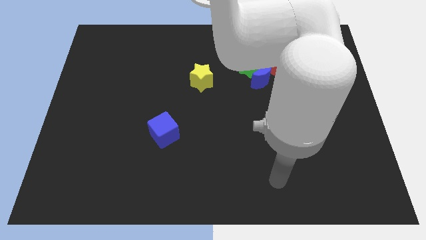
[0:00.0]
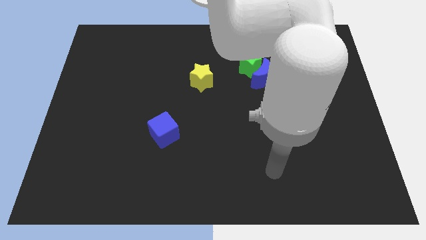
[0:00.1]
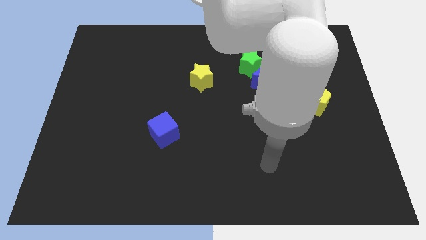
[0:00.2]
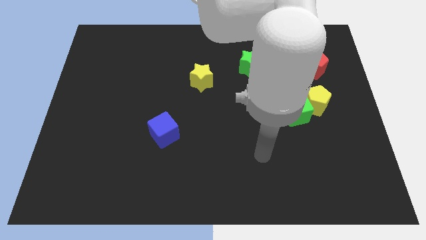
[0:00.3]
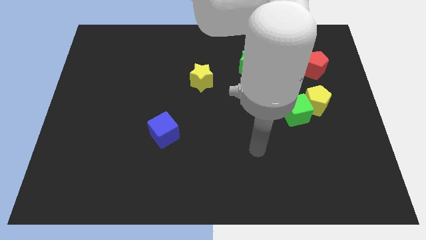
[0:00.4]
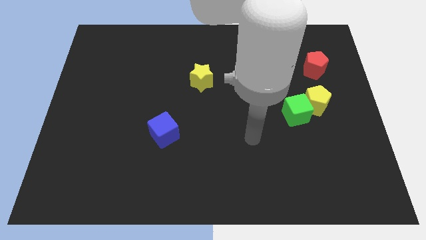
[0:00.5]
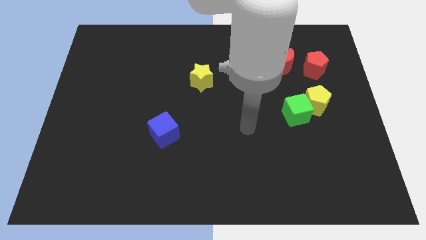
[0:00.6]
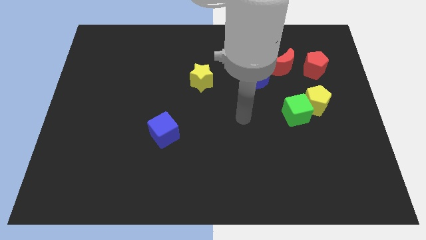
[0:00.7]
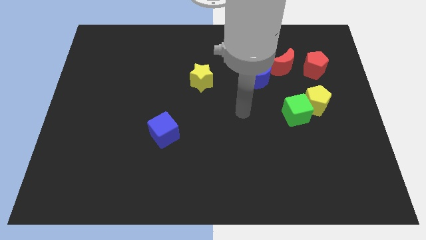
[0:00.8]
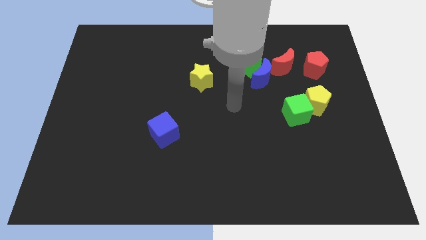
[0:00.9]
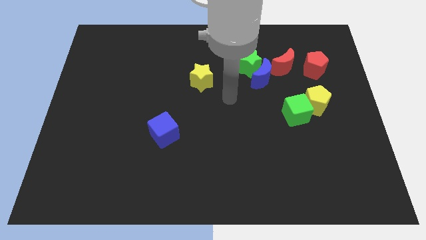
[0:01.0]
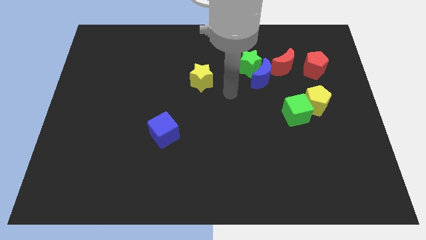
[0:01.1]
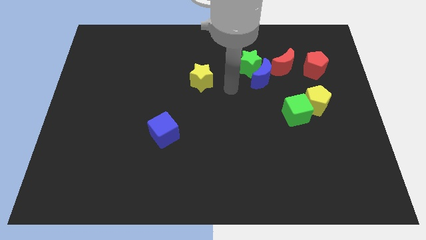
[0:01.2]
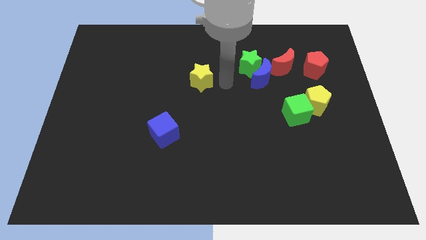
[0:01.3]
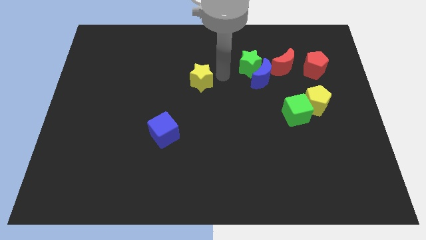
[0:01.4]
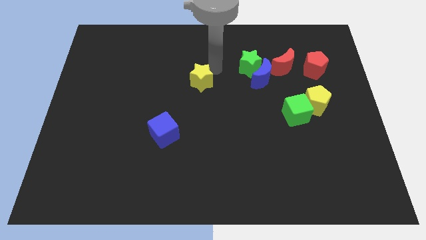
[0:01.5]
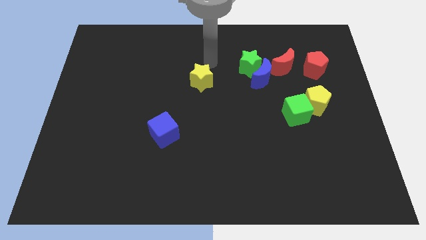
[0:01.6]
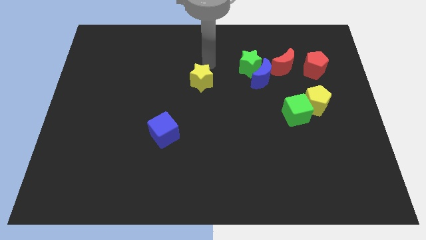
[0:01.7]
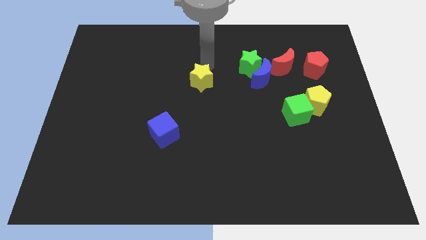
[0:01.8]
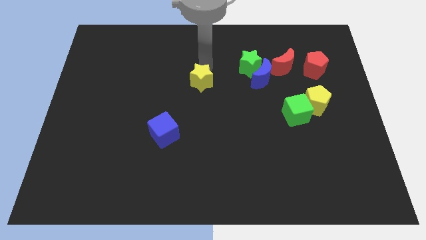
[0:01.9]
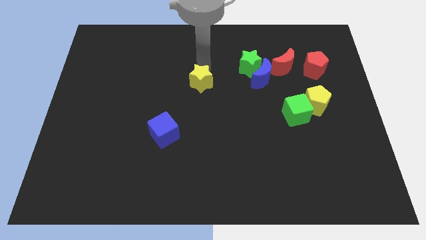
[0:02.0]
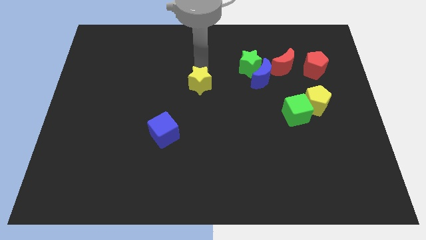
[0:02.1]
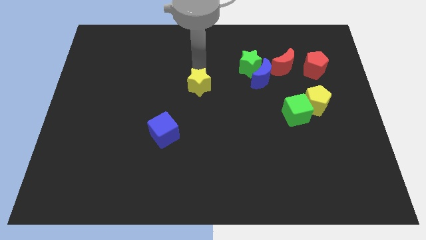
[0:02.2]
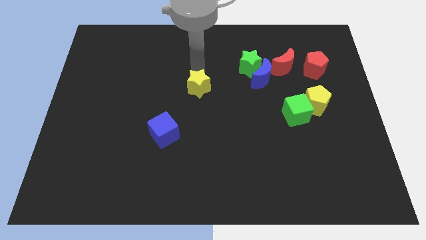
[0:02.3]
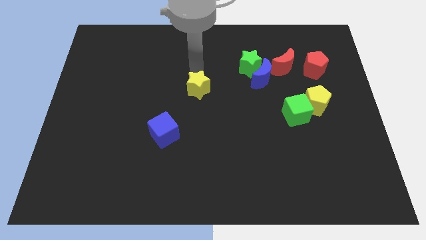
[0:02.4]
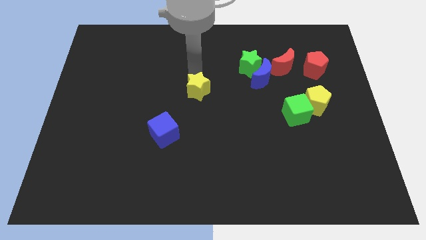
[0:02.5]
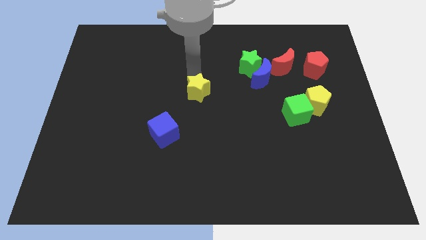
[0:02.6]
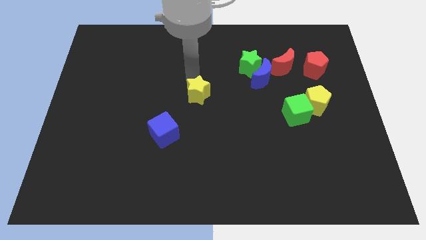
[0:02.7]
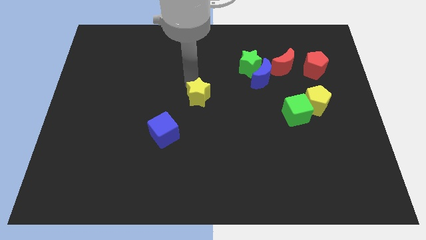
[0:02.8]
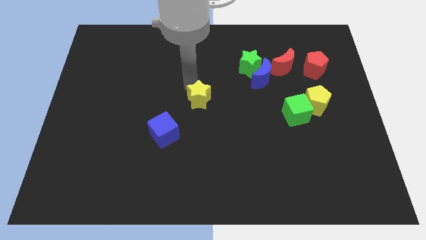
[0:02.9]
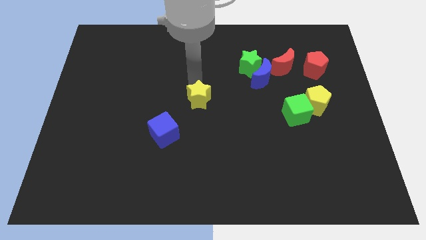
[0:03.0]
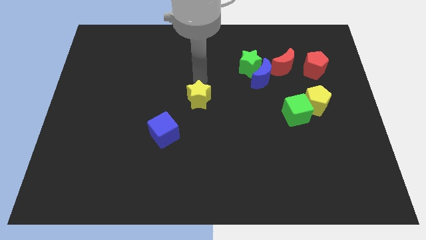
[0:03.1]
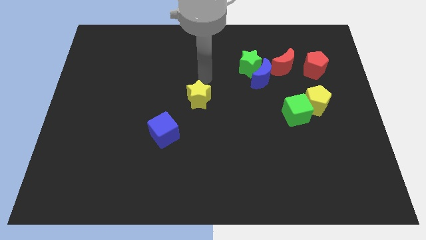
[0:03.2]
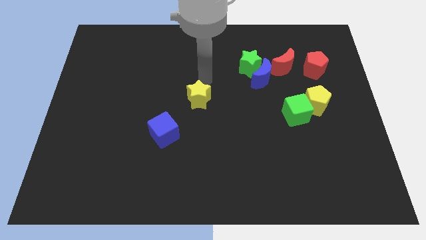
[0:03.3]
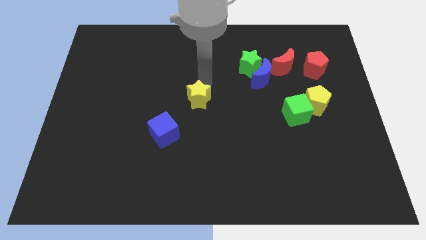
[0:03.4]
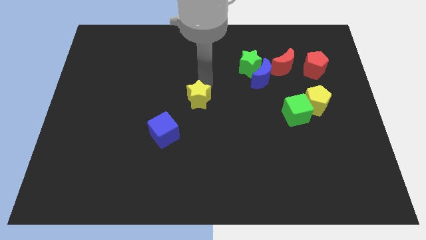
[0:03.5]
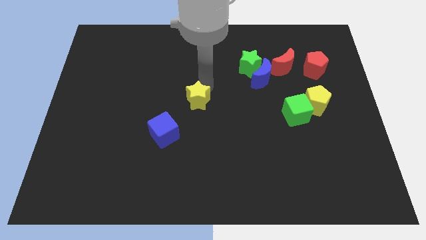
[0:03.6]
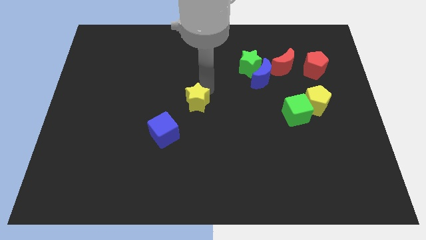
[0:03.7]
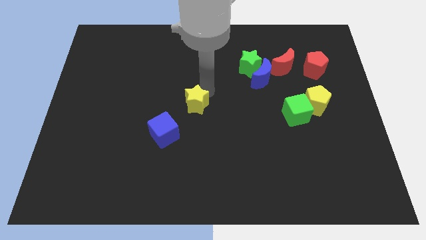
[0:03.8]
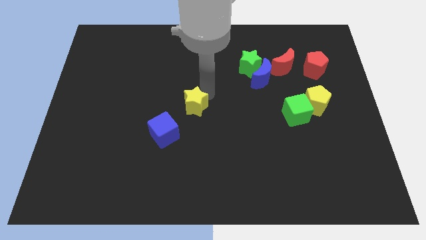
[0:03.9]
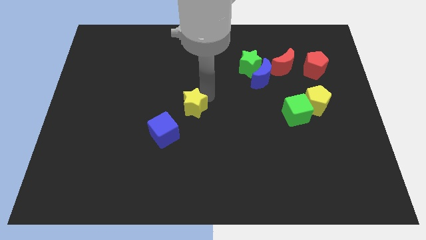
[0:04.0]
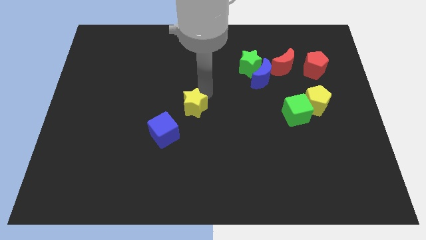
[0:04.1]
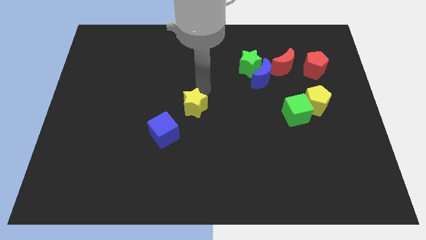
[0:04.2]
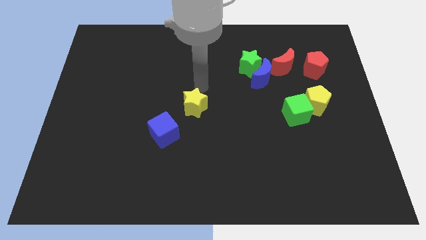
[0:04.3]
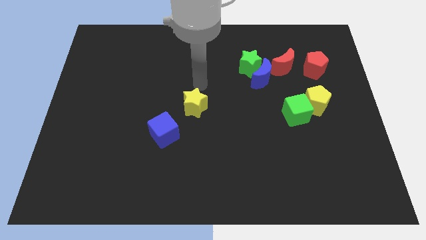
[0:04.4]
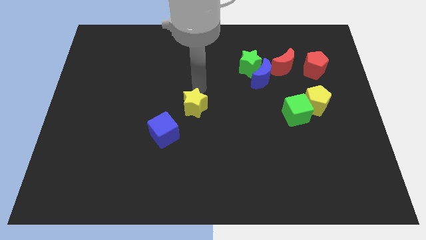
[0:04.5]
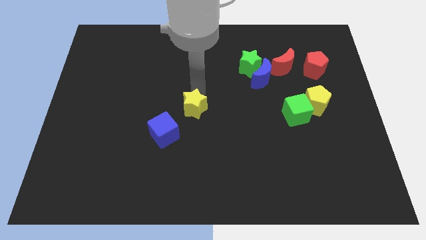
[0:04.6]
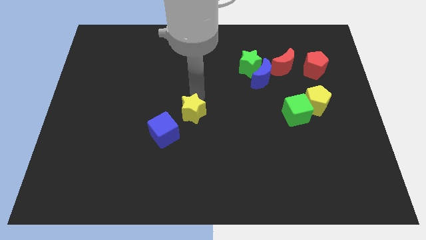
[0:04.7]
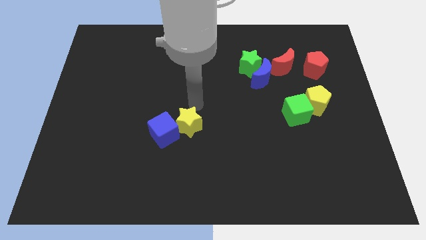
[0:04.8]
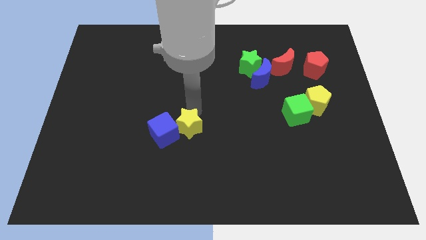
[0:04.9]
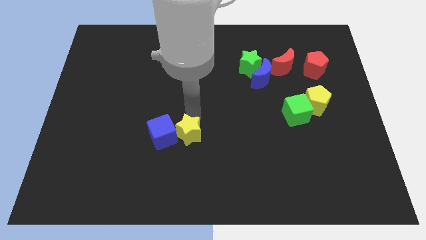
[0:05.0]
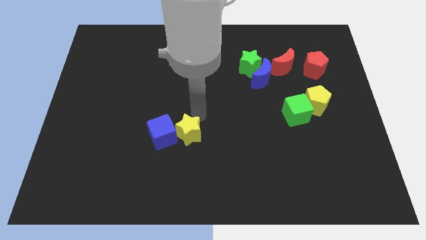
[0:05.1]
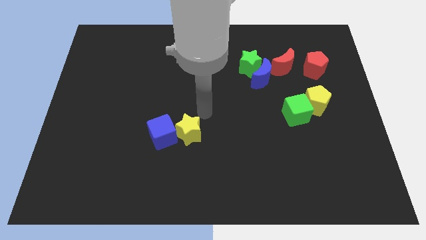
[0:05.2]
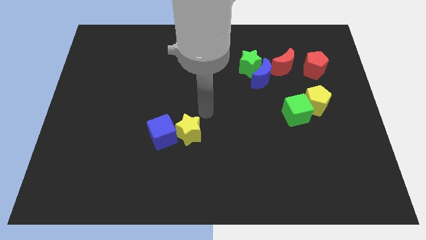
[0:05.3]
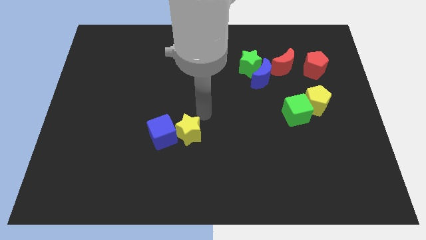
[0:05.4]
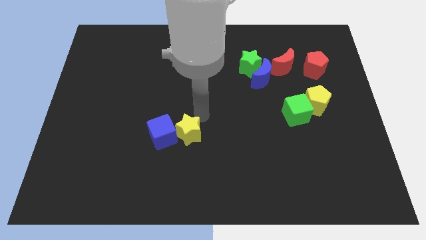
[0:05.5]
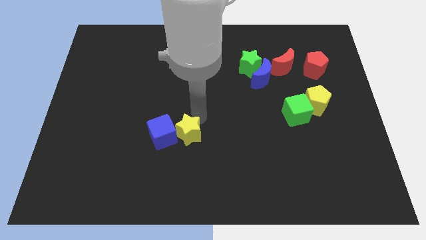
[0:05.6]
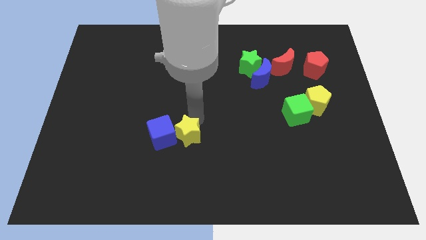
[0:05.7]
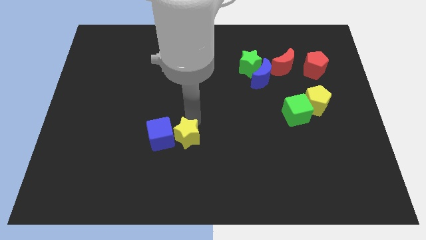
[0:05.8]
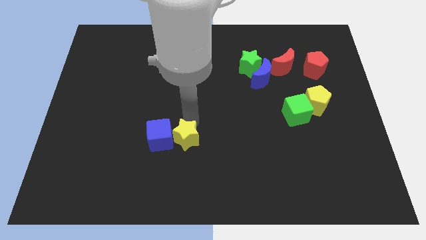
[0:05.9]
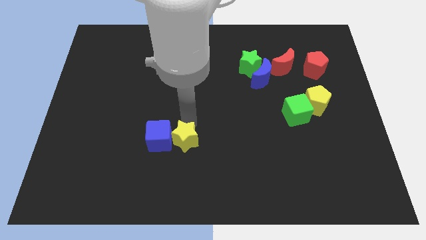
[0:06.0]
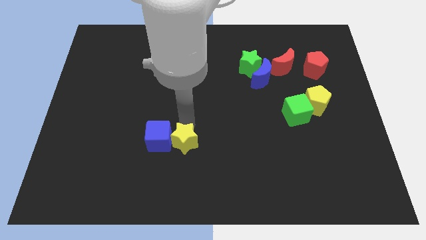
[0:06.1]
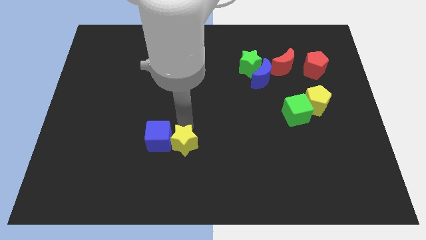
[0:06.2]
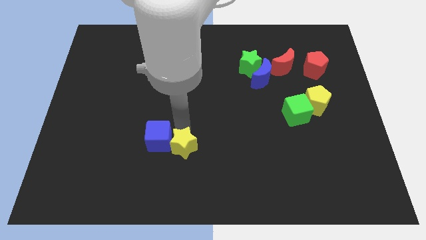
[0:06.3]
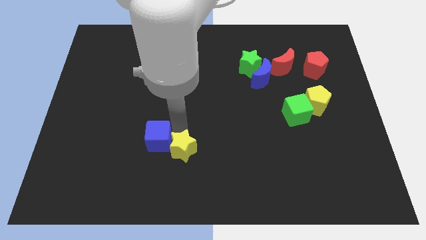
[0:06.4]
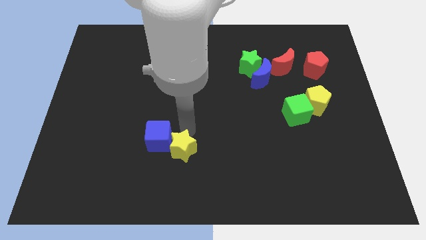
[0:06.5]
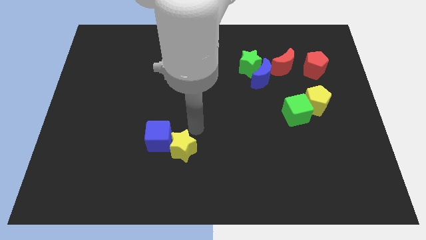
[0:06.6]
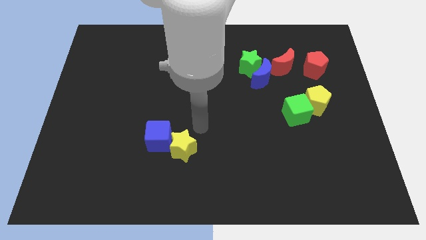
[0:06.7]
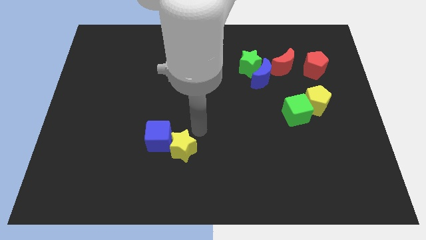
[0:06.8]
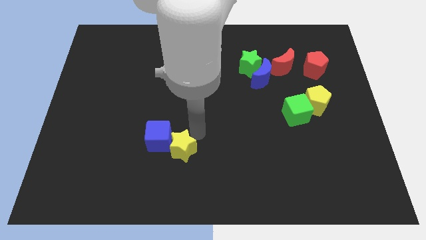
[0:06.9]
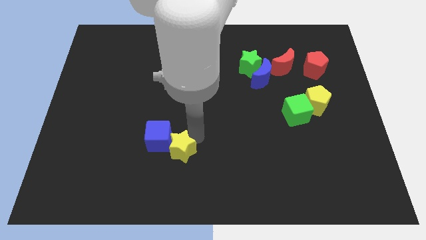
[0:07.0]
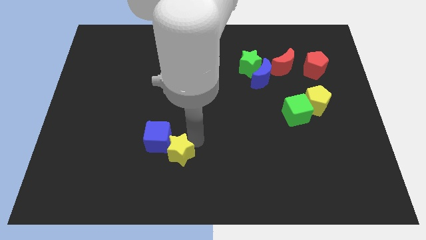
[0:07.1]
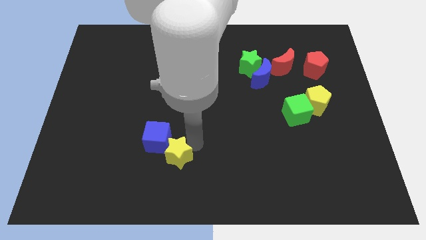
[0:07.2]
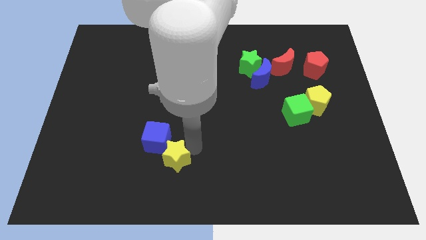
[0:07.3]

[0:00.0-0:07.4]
slide the yellow star to the bottom of the blue cube
